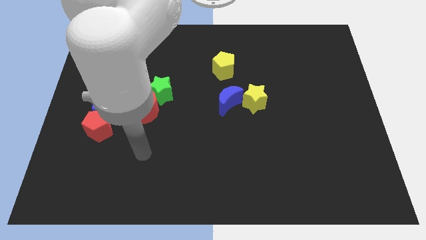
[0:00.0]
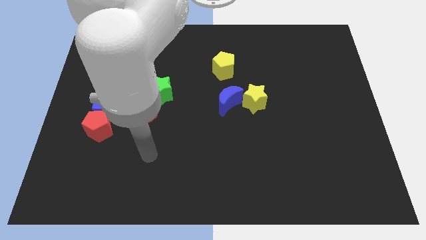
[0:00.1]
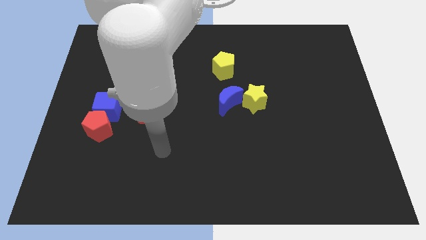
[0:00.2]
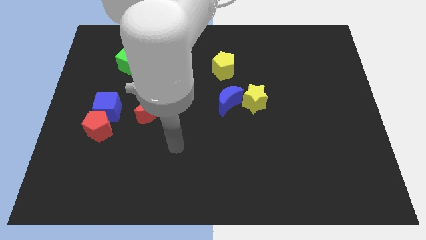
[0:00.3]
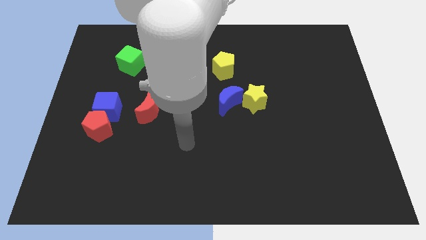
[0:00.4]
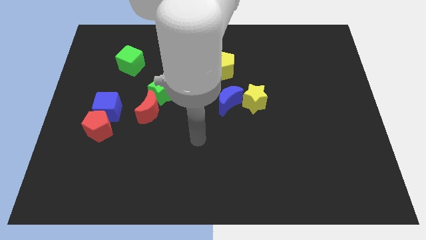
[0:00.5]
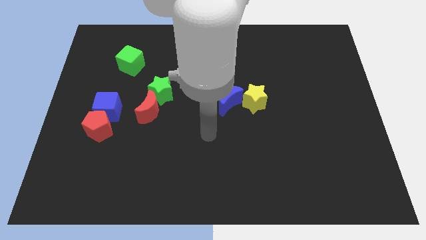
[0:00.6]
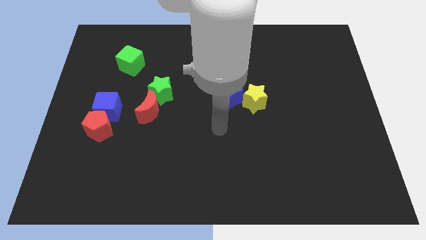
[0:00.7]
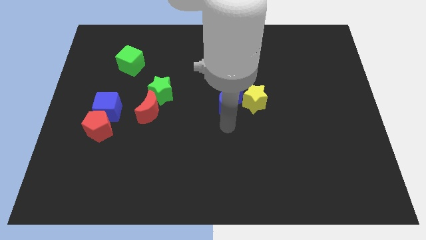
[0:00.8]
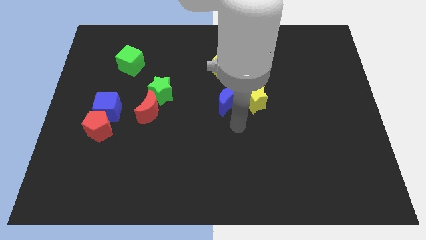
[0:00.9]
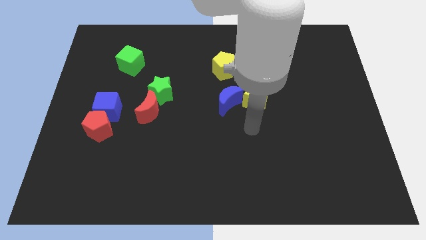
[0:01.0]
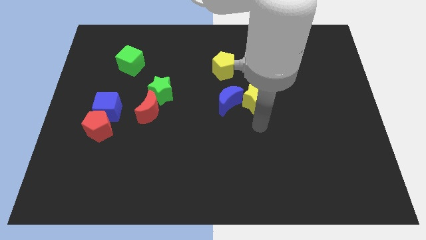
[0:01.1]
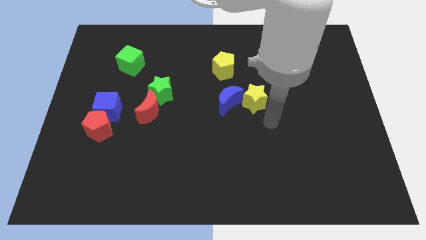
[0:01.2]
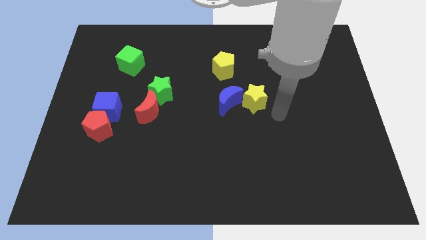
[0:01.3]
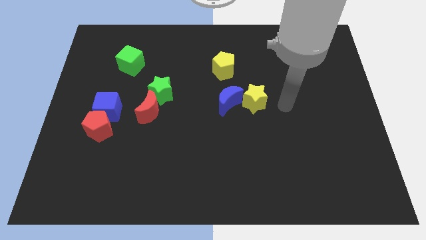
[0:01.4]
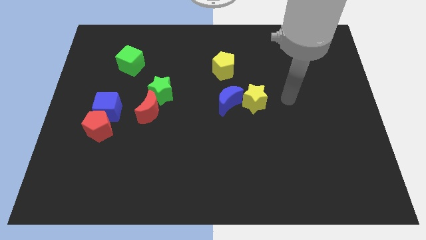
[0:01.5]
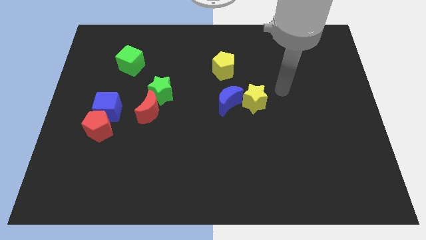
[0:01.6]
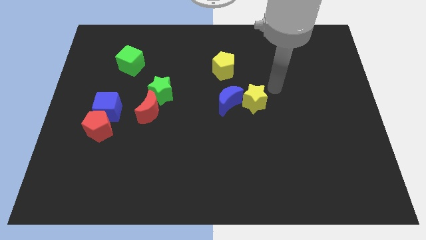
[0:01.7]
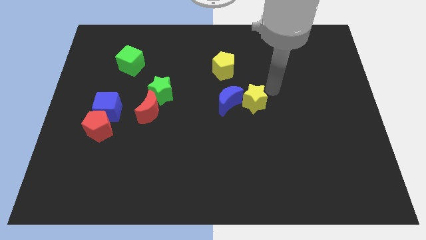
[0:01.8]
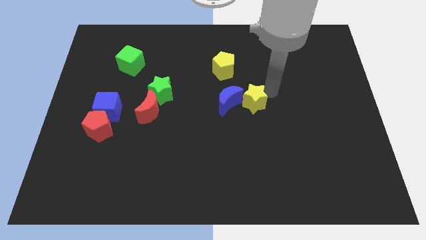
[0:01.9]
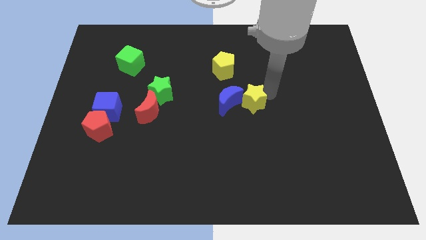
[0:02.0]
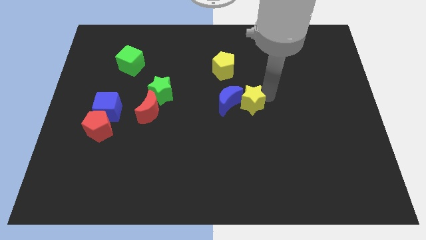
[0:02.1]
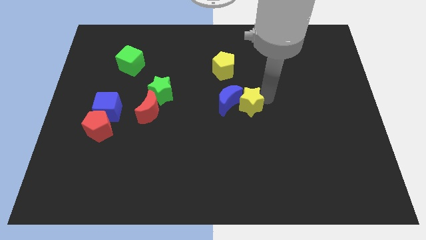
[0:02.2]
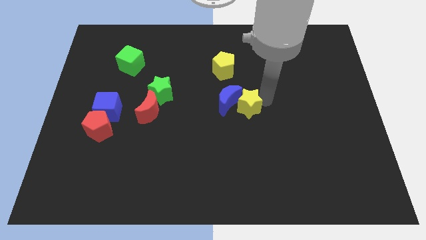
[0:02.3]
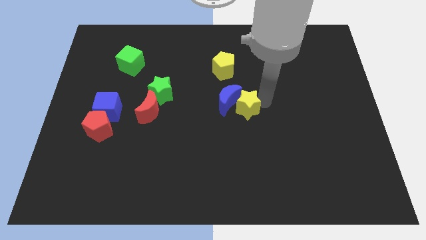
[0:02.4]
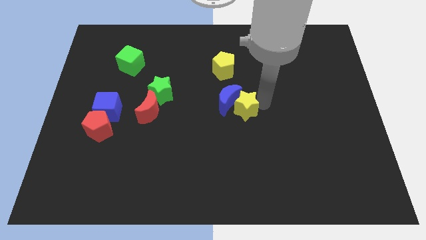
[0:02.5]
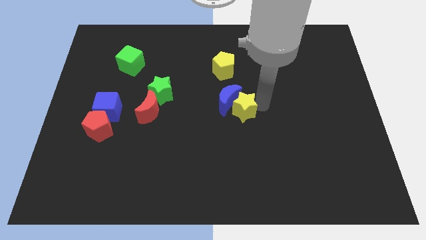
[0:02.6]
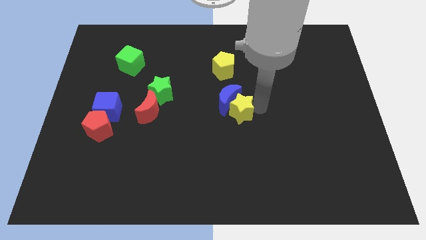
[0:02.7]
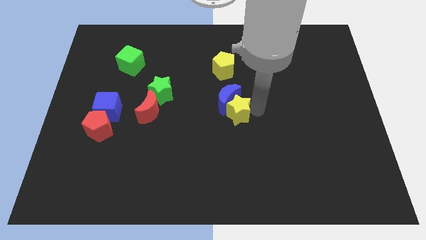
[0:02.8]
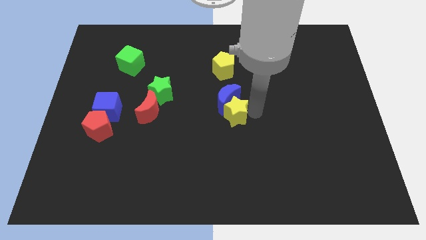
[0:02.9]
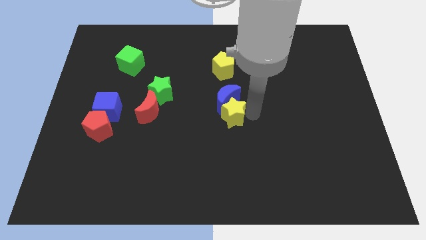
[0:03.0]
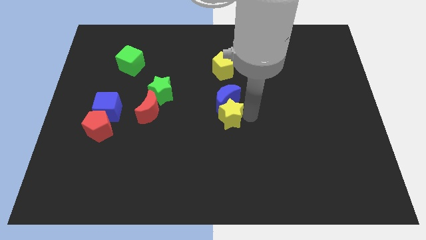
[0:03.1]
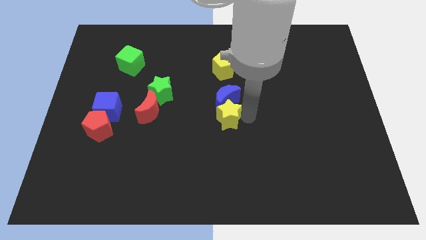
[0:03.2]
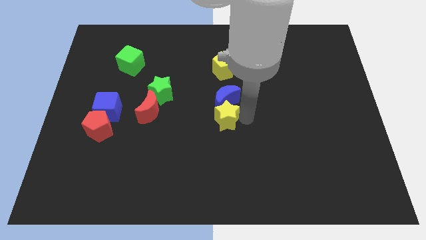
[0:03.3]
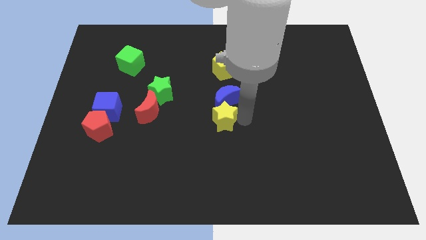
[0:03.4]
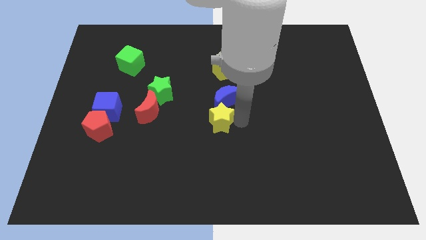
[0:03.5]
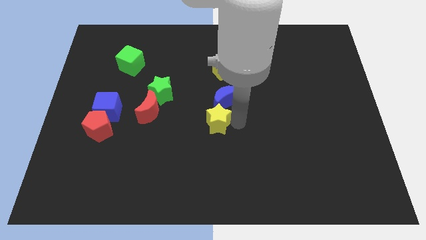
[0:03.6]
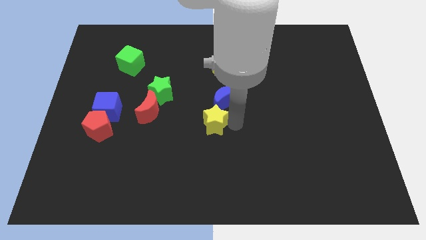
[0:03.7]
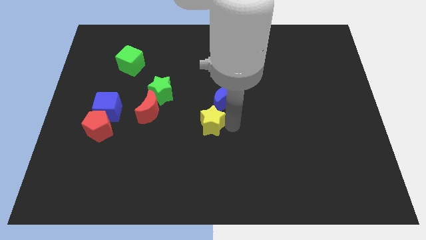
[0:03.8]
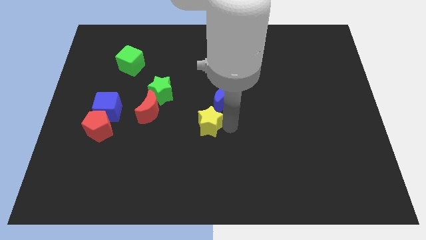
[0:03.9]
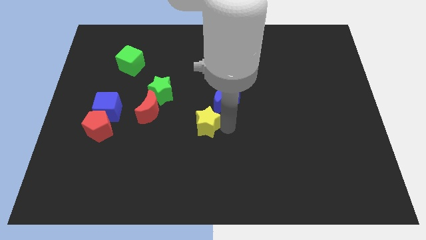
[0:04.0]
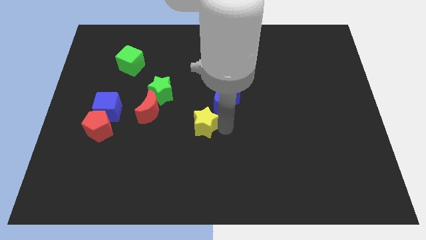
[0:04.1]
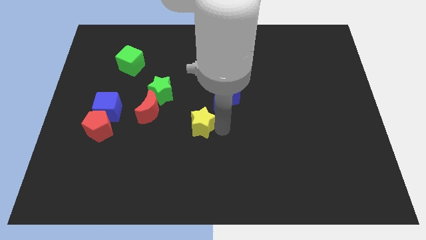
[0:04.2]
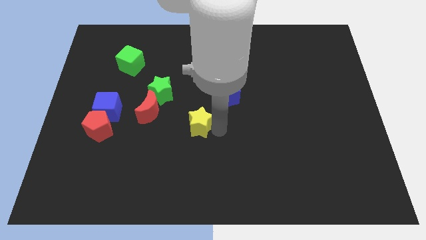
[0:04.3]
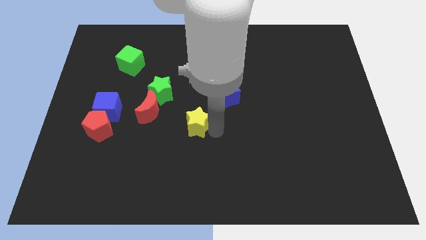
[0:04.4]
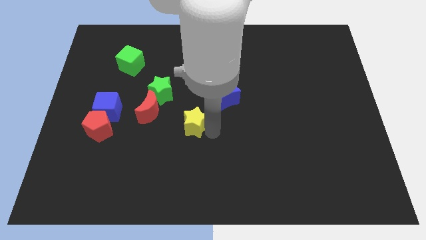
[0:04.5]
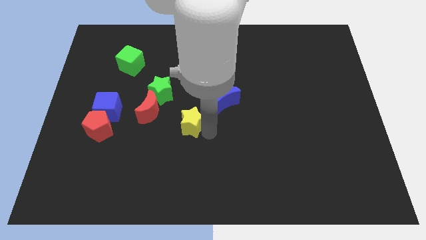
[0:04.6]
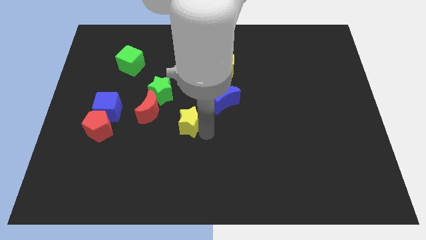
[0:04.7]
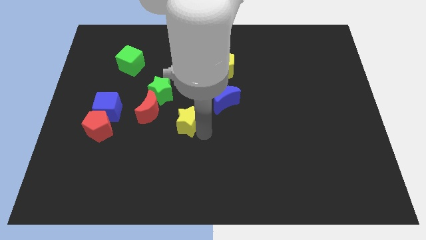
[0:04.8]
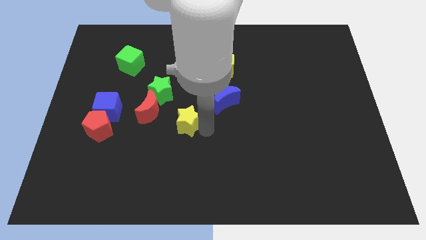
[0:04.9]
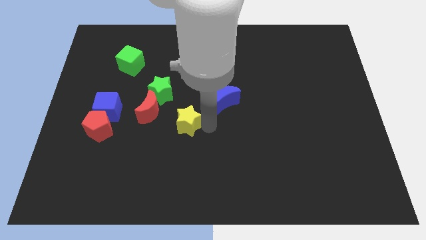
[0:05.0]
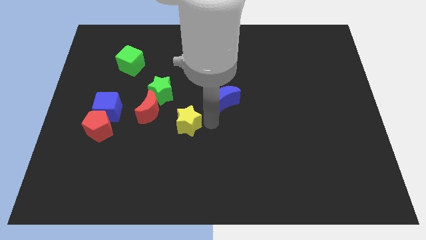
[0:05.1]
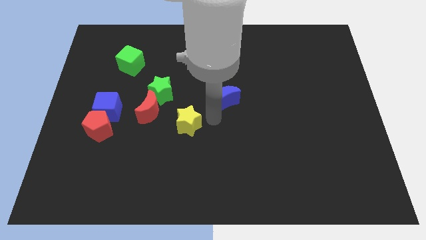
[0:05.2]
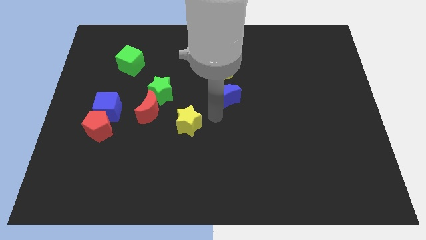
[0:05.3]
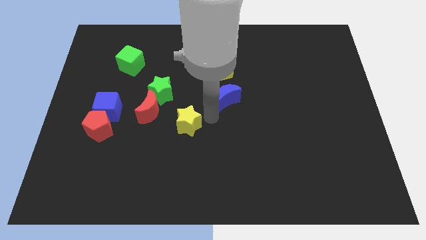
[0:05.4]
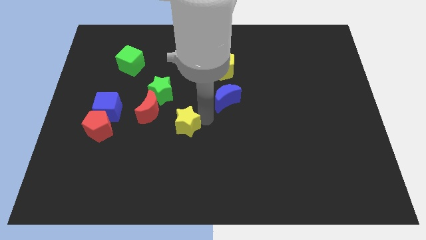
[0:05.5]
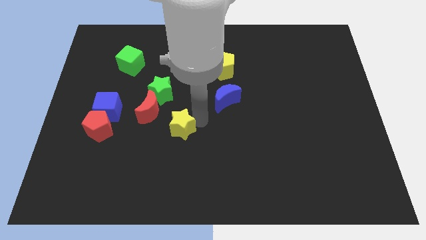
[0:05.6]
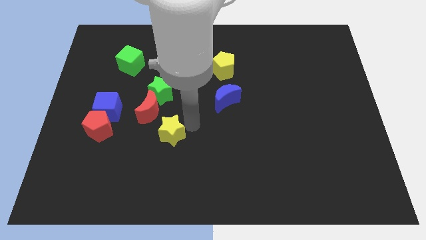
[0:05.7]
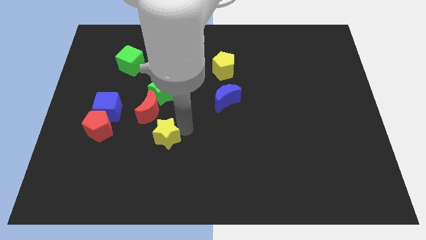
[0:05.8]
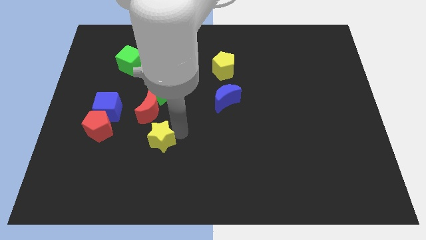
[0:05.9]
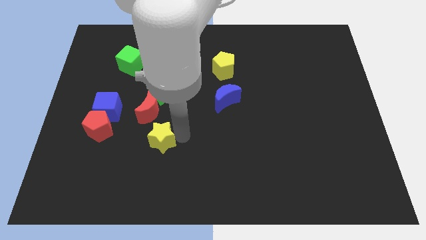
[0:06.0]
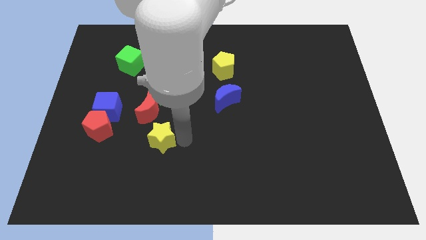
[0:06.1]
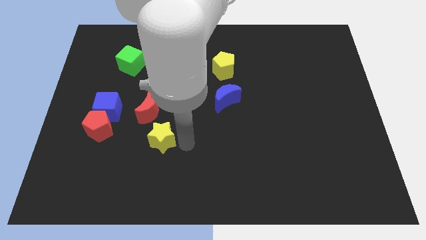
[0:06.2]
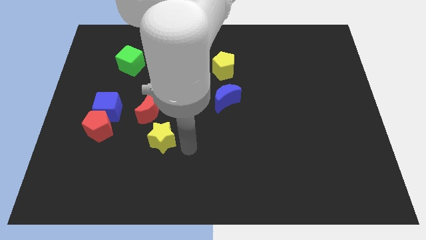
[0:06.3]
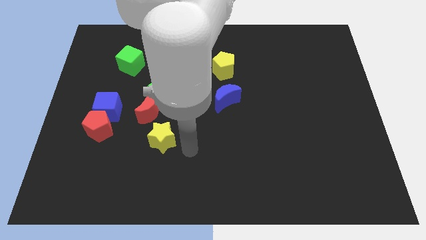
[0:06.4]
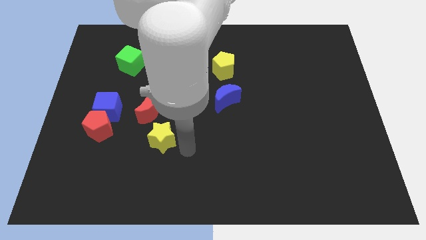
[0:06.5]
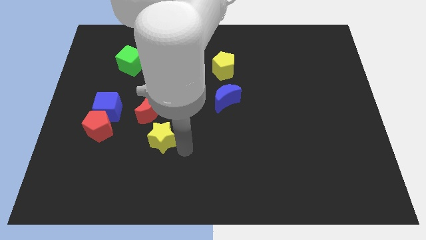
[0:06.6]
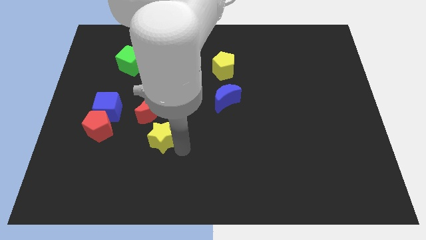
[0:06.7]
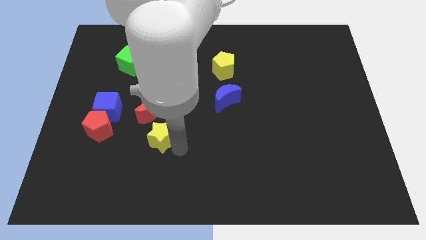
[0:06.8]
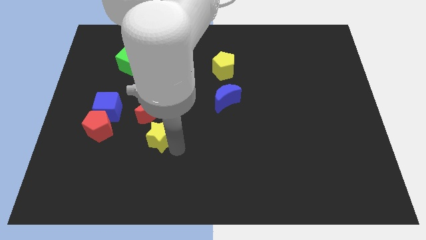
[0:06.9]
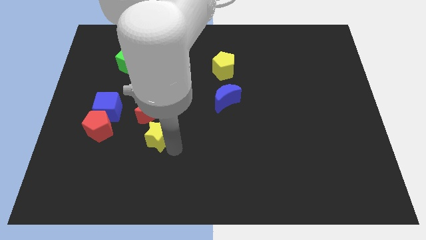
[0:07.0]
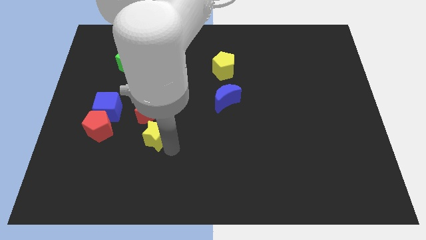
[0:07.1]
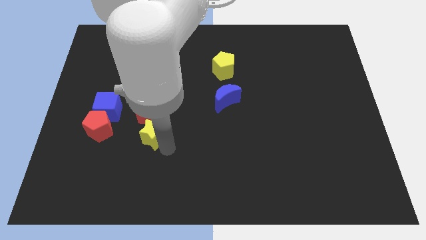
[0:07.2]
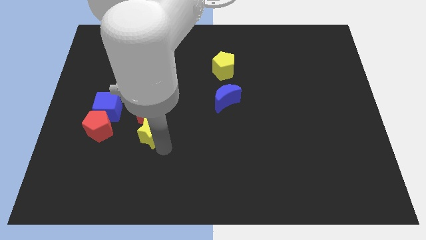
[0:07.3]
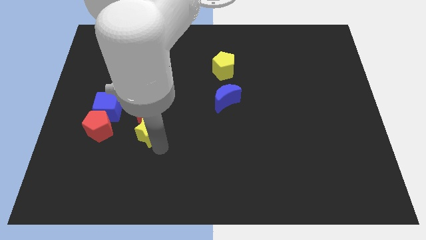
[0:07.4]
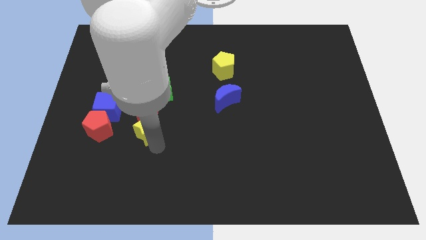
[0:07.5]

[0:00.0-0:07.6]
slide the yellow star diagonally down and to the left of the red moon
